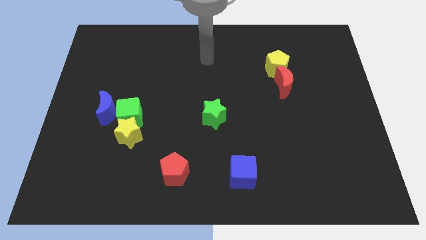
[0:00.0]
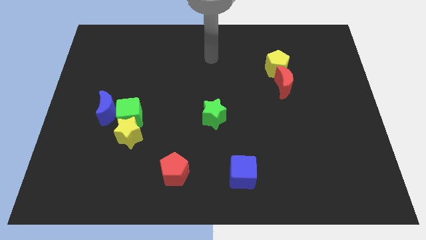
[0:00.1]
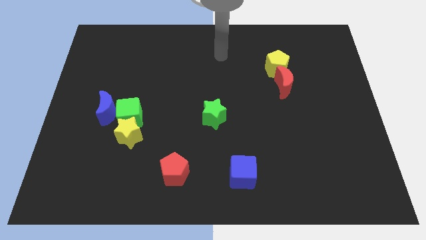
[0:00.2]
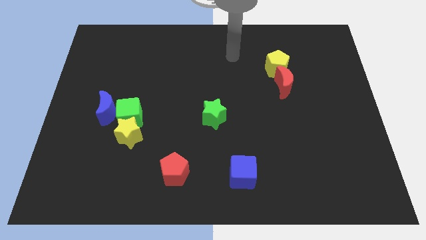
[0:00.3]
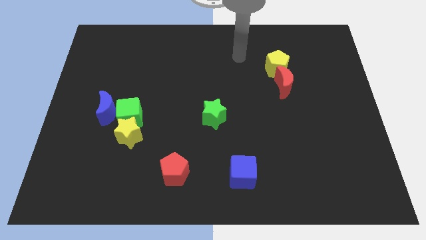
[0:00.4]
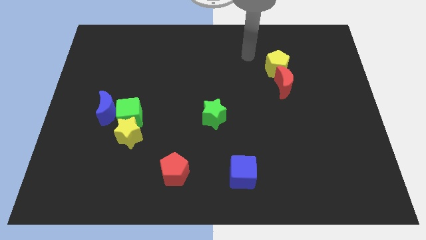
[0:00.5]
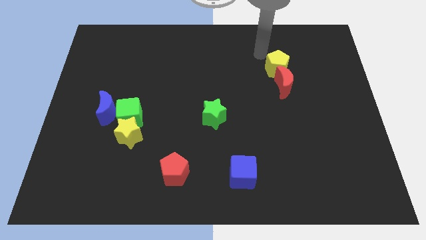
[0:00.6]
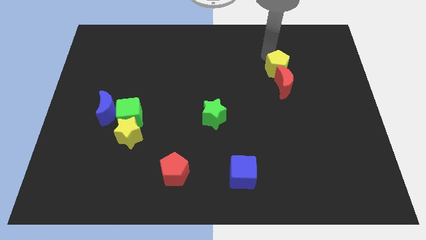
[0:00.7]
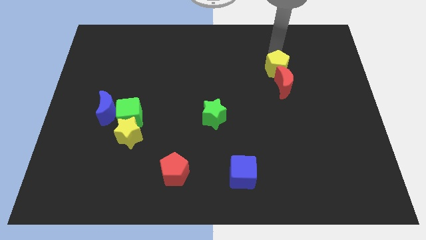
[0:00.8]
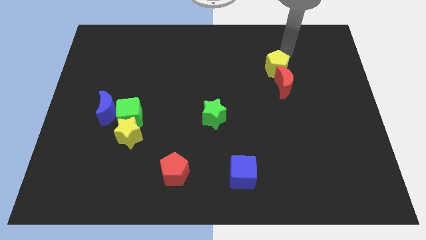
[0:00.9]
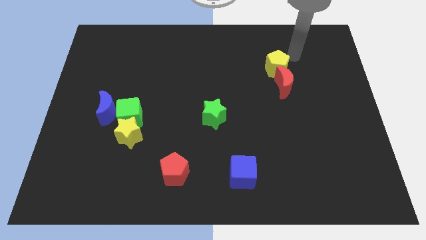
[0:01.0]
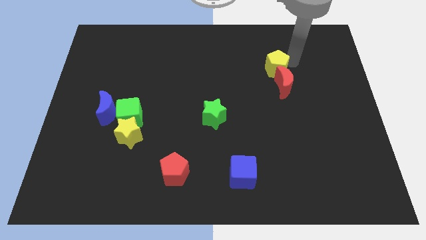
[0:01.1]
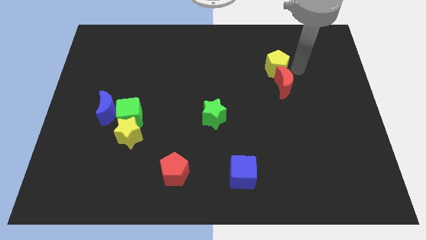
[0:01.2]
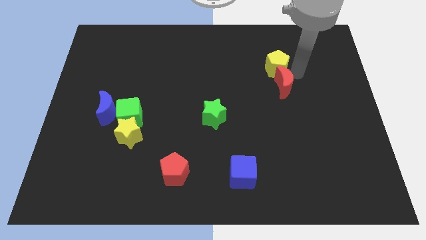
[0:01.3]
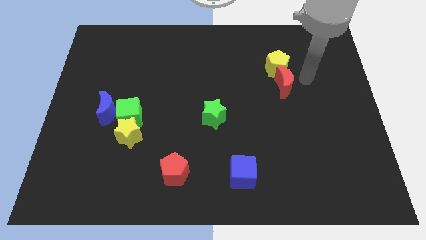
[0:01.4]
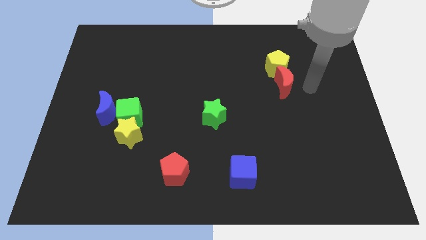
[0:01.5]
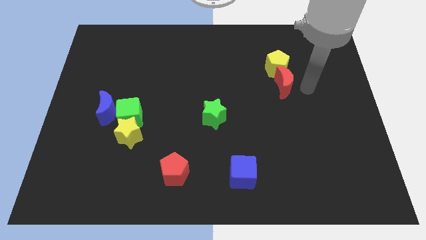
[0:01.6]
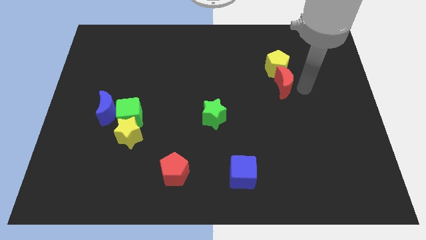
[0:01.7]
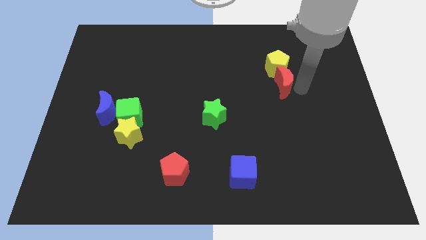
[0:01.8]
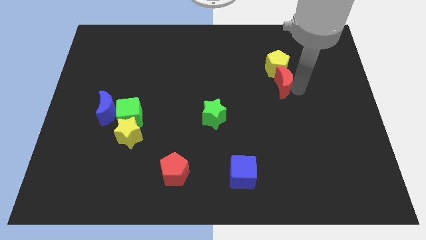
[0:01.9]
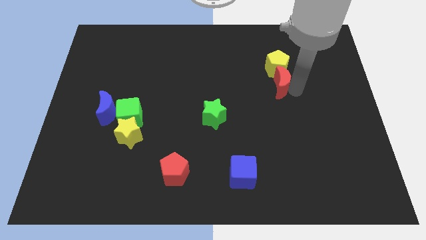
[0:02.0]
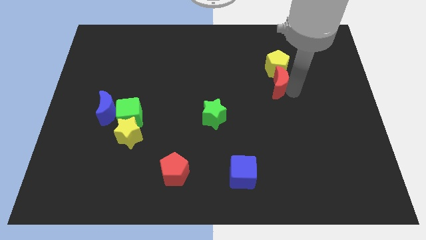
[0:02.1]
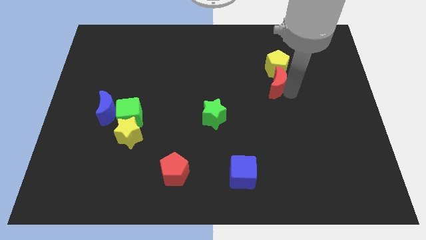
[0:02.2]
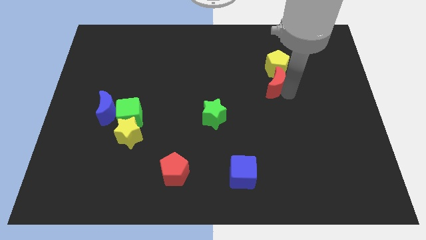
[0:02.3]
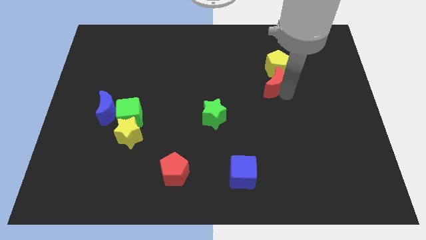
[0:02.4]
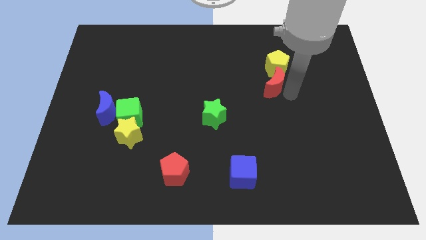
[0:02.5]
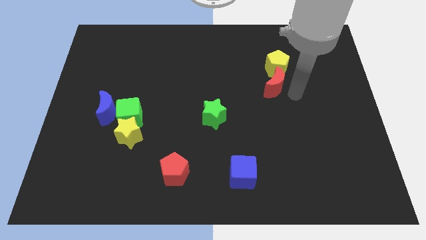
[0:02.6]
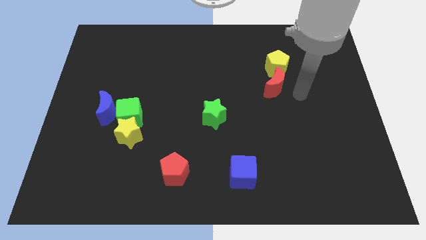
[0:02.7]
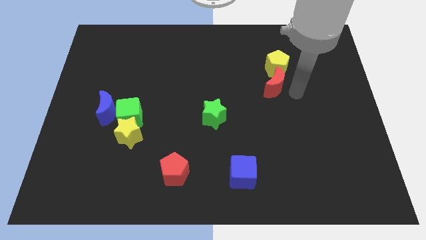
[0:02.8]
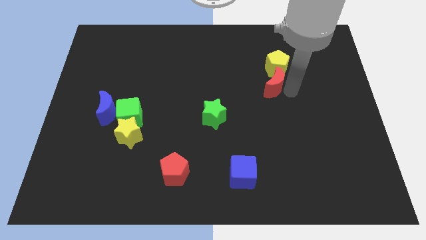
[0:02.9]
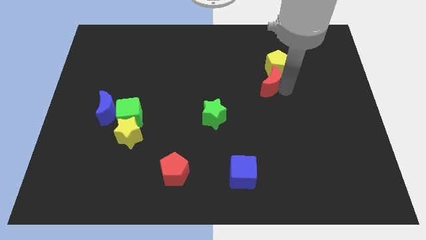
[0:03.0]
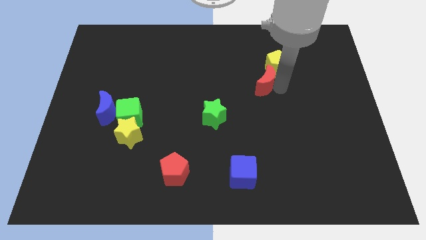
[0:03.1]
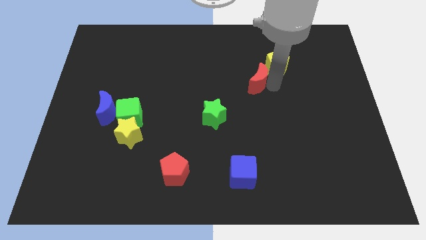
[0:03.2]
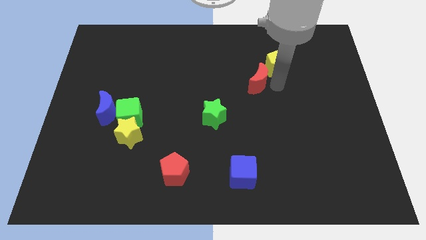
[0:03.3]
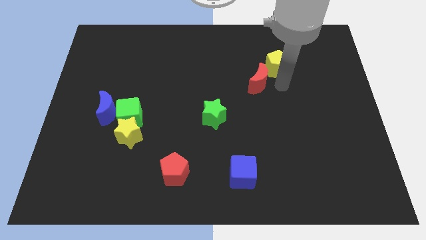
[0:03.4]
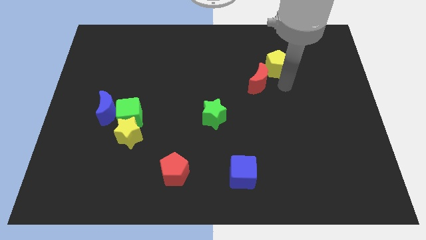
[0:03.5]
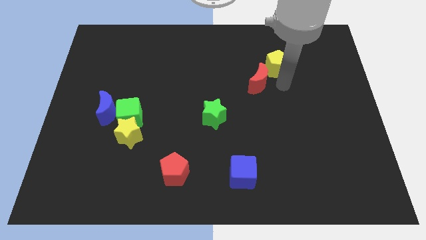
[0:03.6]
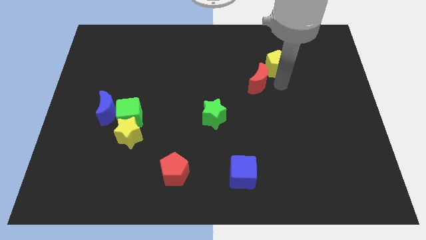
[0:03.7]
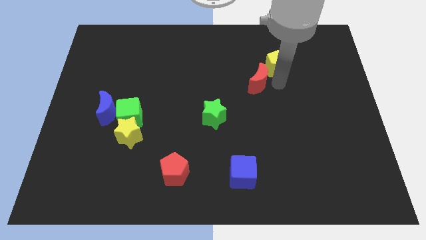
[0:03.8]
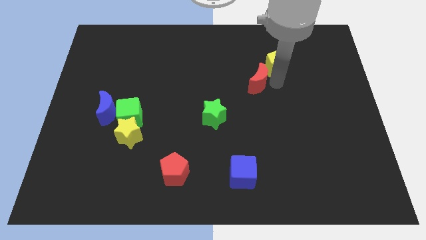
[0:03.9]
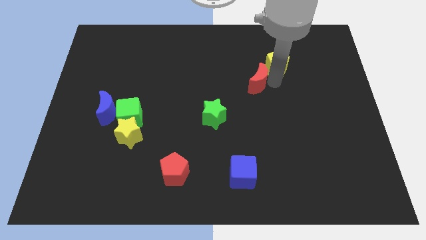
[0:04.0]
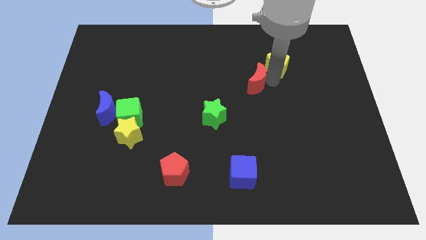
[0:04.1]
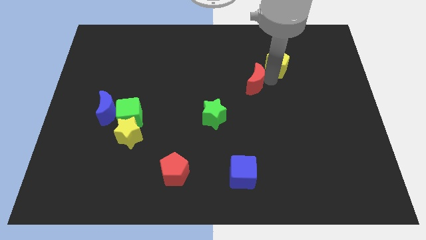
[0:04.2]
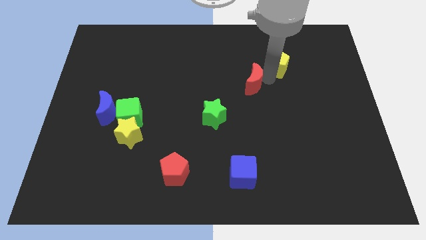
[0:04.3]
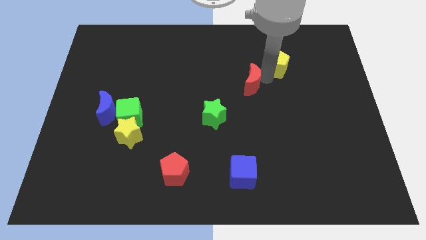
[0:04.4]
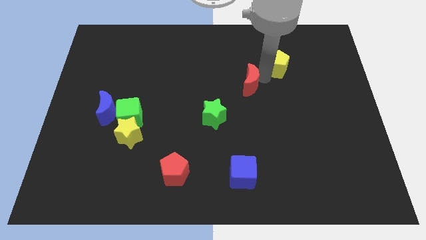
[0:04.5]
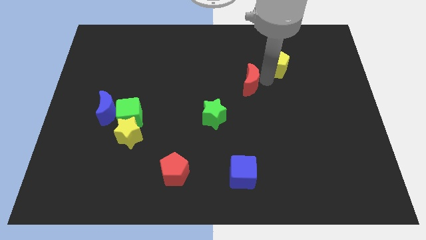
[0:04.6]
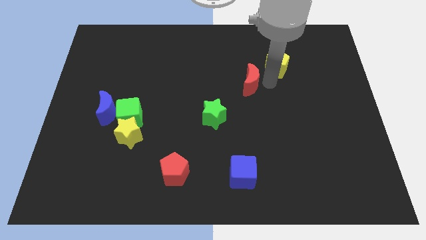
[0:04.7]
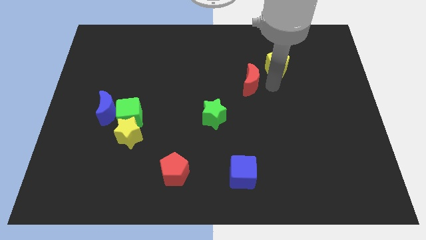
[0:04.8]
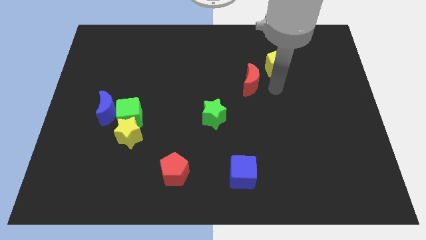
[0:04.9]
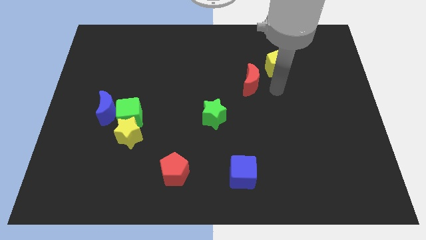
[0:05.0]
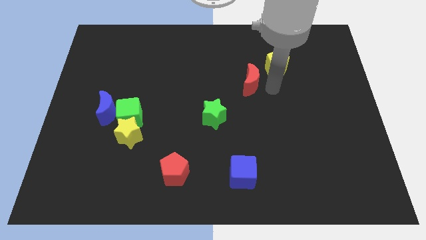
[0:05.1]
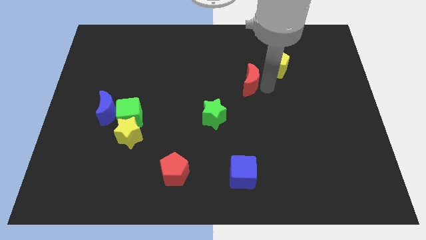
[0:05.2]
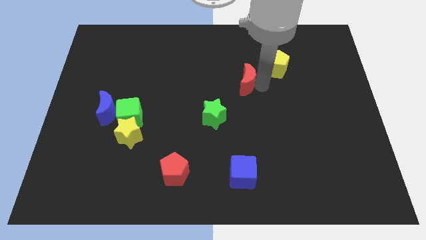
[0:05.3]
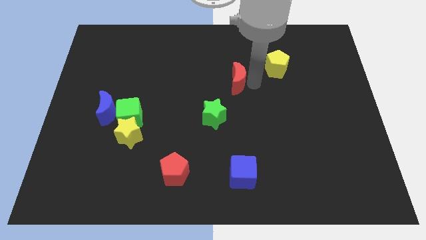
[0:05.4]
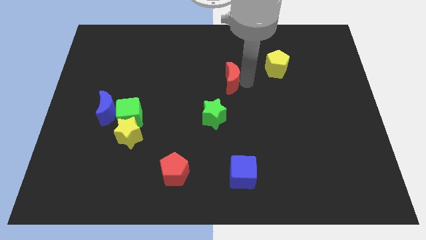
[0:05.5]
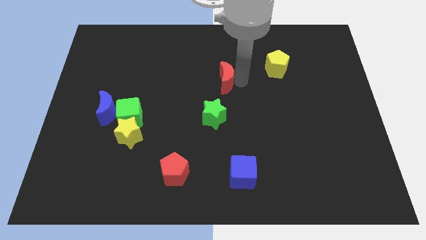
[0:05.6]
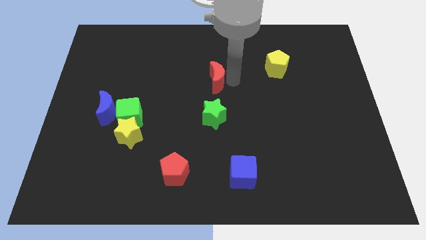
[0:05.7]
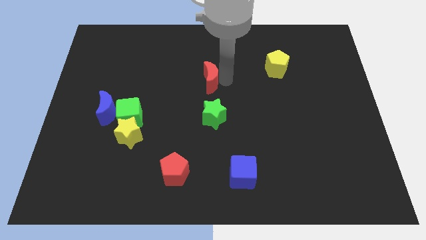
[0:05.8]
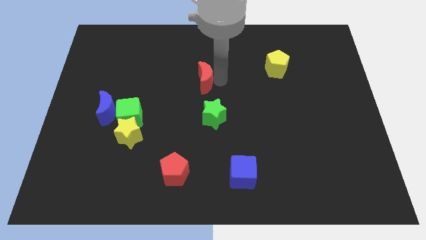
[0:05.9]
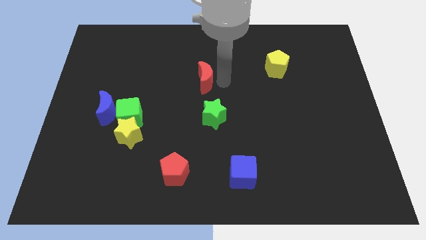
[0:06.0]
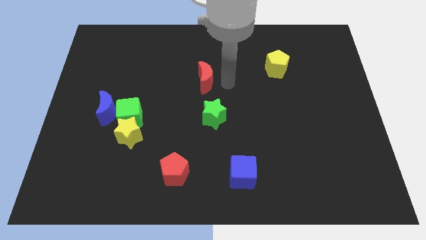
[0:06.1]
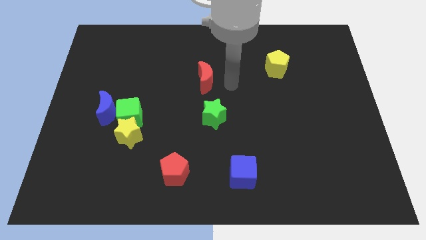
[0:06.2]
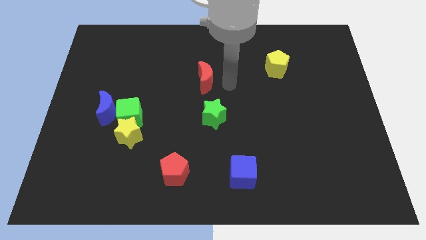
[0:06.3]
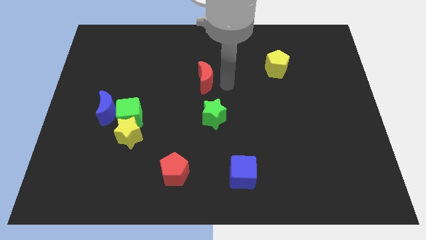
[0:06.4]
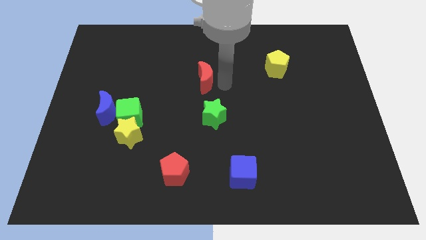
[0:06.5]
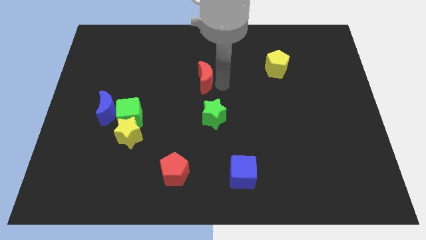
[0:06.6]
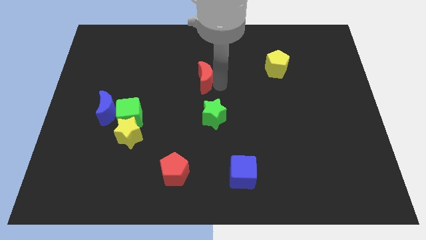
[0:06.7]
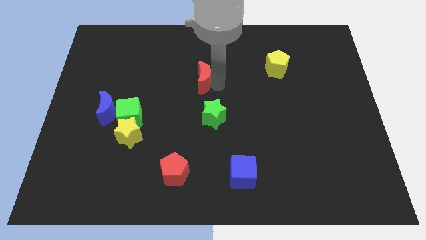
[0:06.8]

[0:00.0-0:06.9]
slide the red moon left

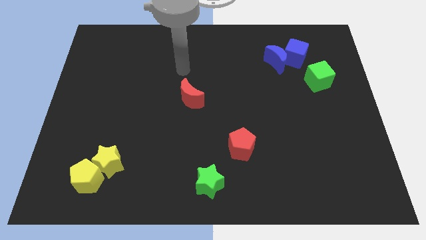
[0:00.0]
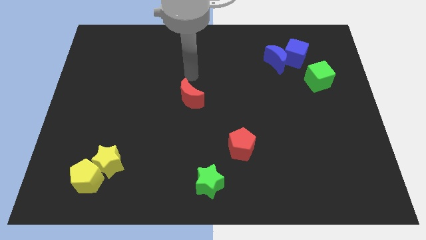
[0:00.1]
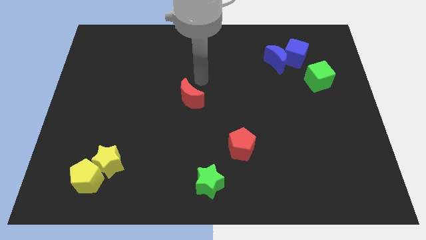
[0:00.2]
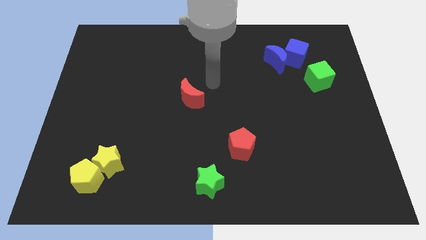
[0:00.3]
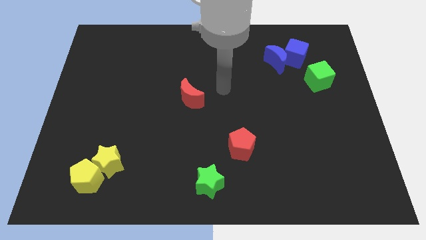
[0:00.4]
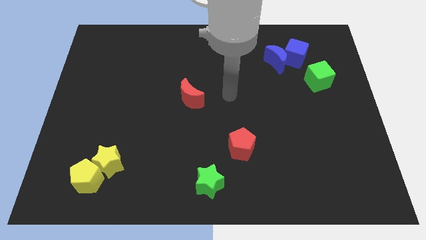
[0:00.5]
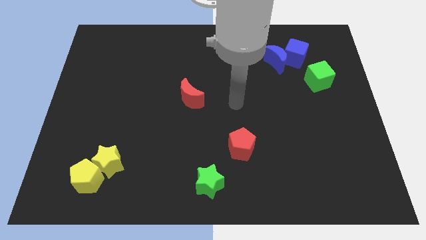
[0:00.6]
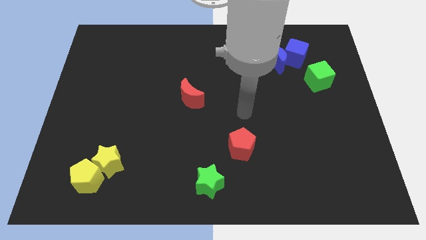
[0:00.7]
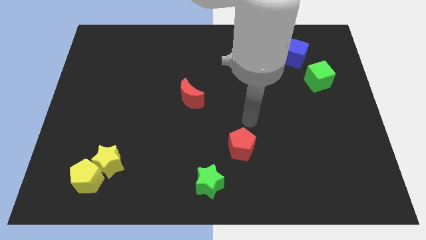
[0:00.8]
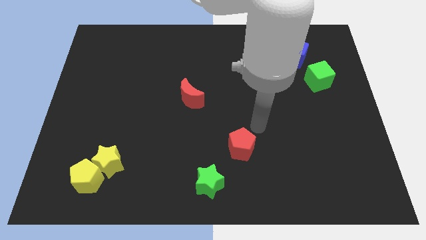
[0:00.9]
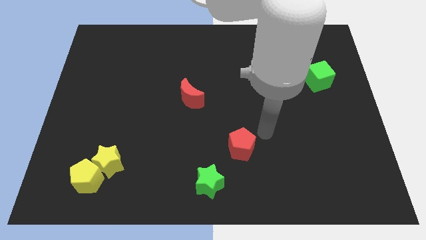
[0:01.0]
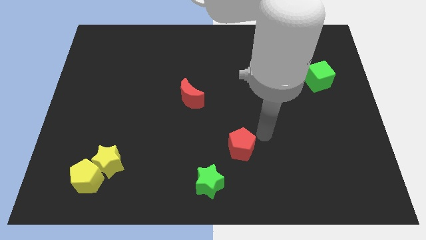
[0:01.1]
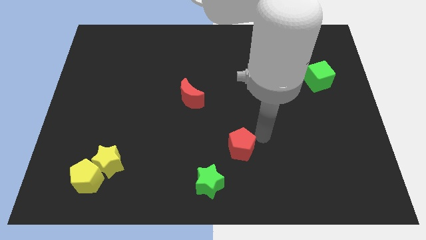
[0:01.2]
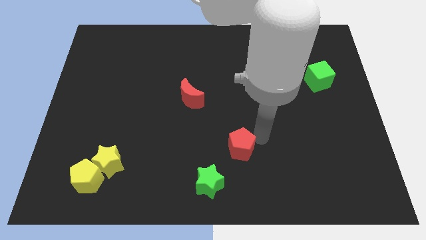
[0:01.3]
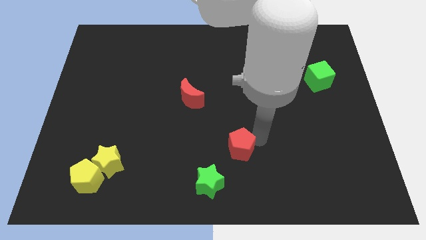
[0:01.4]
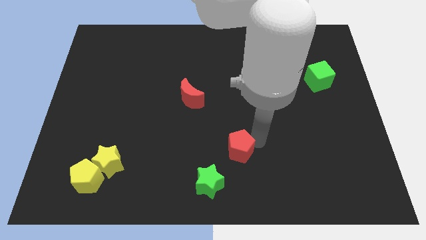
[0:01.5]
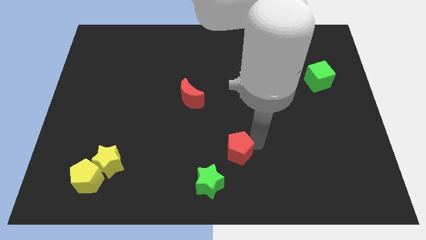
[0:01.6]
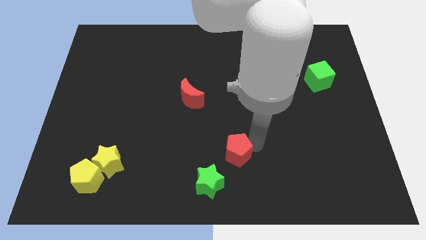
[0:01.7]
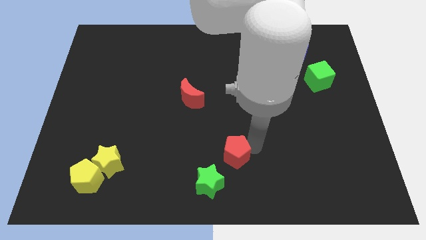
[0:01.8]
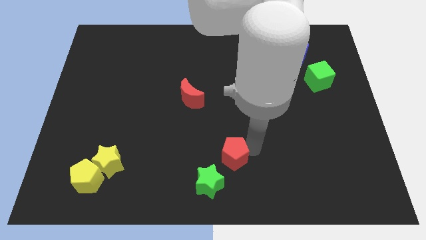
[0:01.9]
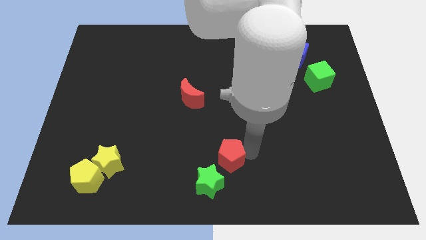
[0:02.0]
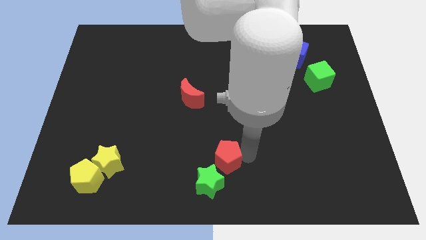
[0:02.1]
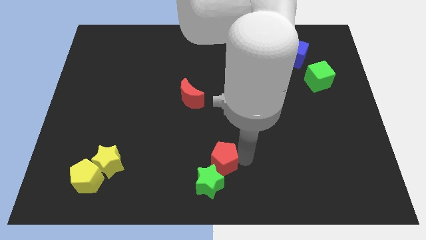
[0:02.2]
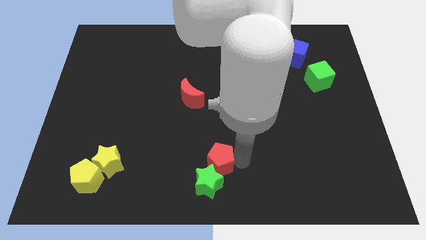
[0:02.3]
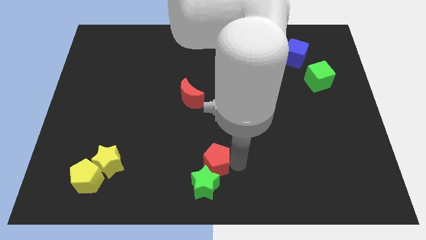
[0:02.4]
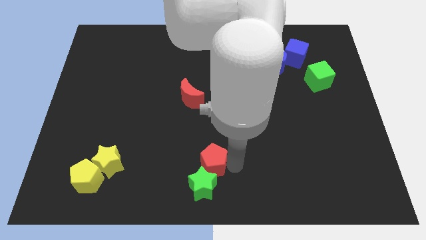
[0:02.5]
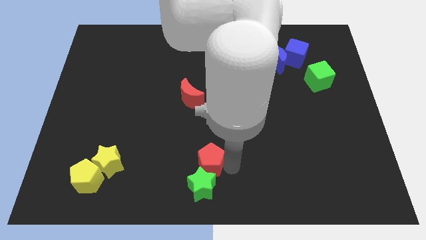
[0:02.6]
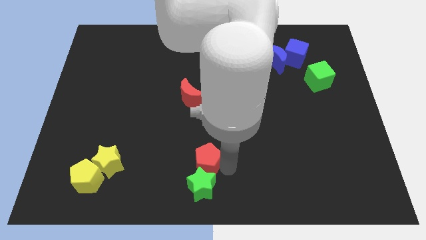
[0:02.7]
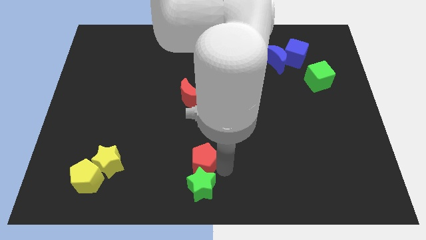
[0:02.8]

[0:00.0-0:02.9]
move the red pentagon a little bit to the left
